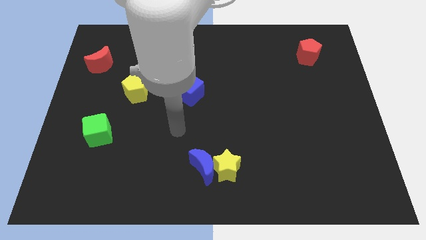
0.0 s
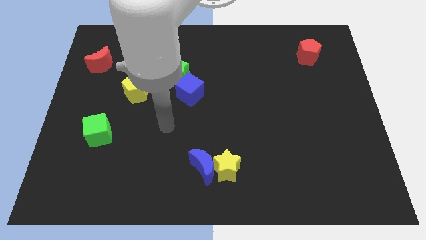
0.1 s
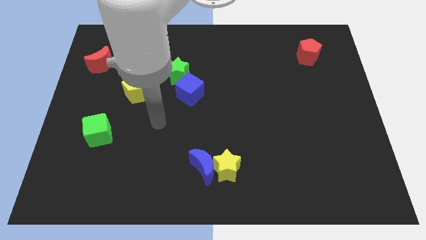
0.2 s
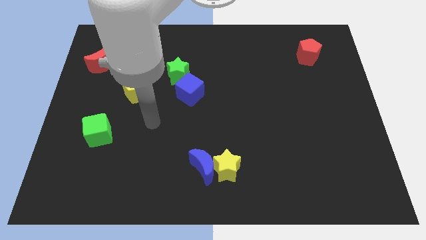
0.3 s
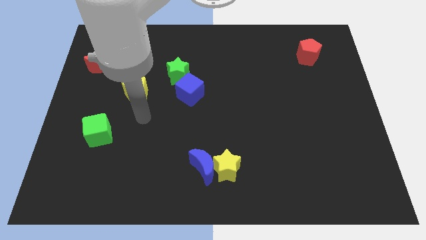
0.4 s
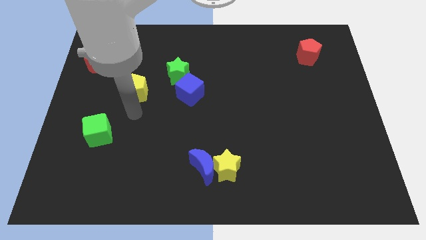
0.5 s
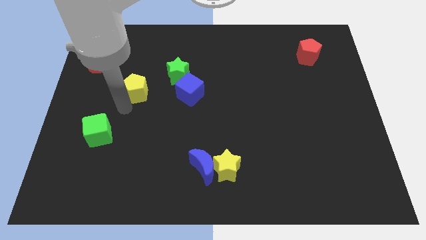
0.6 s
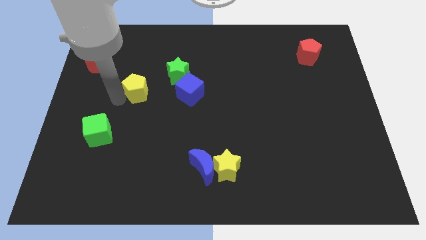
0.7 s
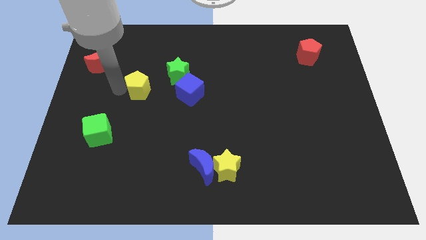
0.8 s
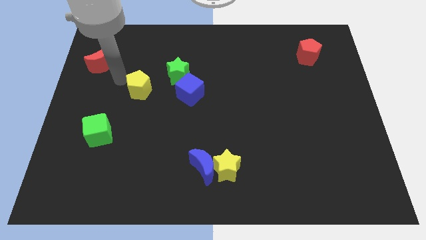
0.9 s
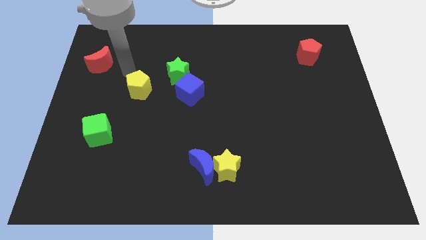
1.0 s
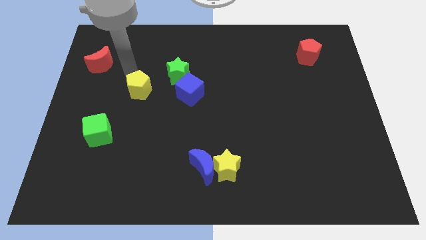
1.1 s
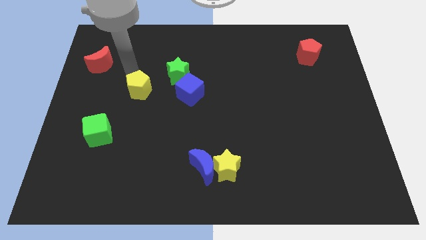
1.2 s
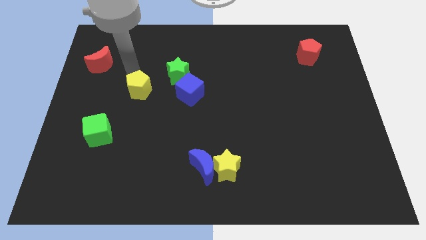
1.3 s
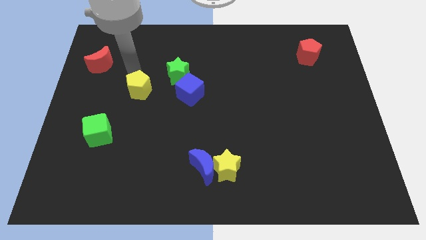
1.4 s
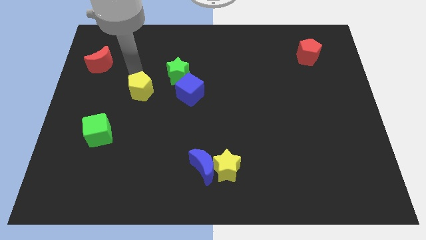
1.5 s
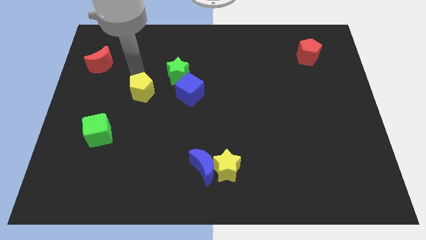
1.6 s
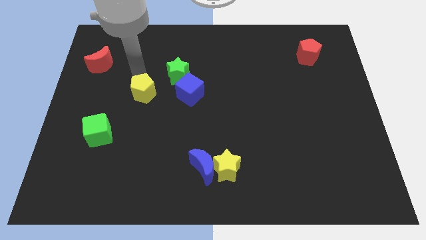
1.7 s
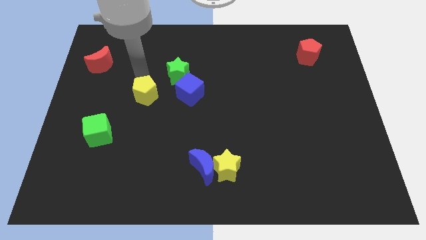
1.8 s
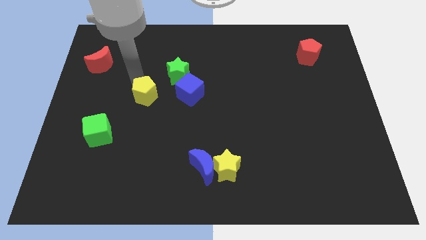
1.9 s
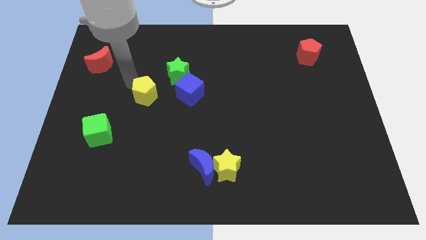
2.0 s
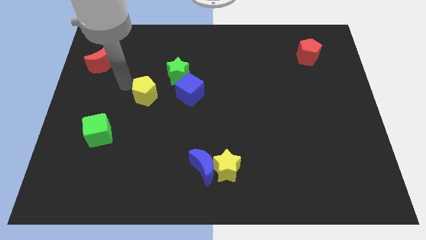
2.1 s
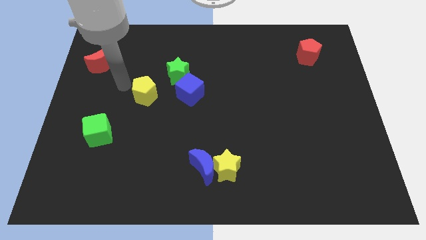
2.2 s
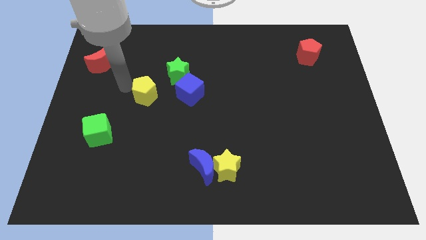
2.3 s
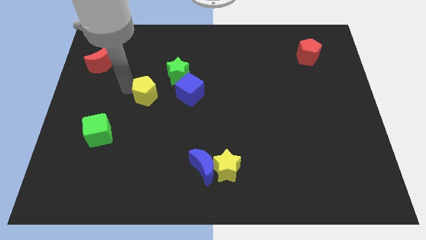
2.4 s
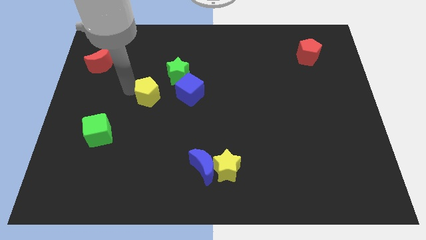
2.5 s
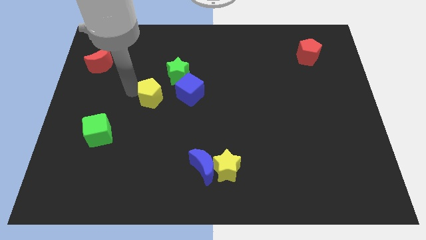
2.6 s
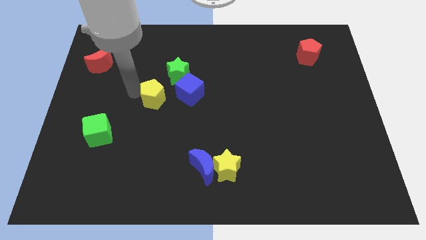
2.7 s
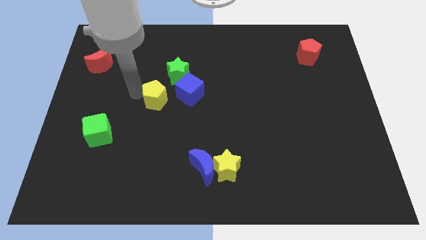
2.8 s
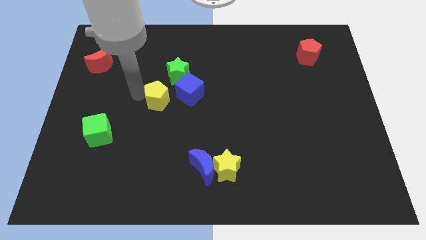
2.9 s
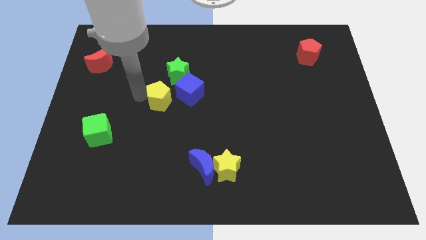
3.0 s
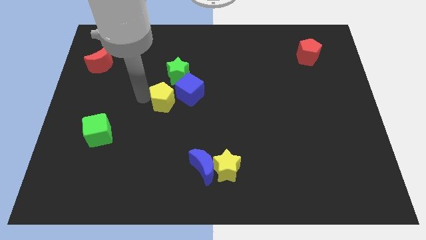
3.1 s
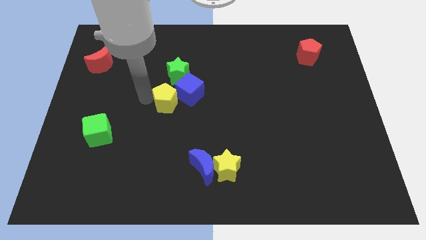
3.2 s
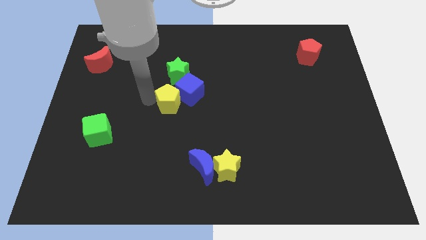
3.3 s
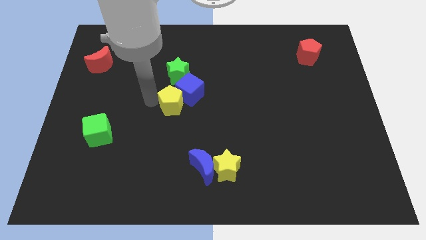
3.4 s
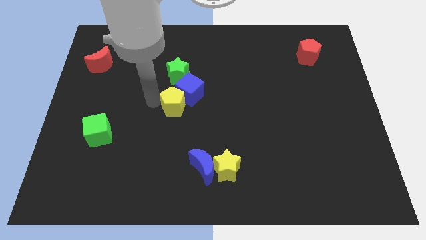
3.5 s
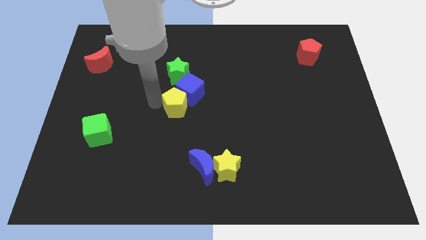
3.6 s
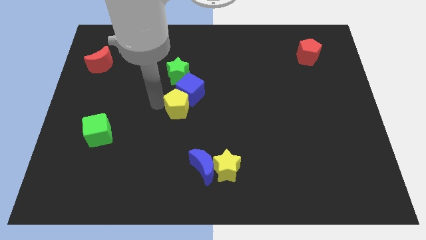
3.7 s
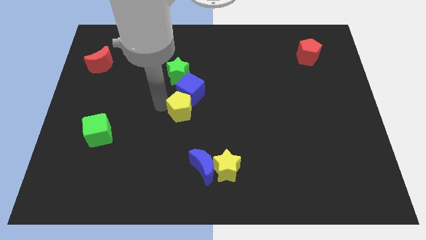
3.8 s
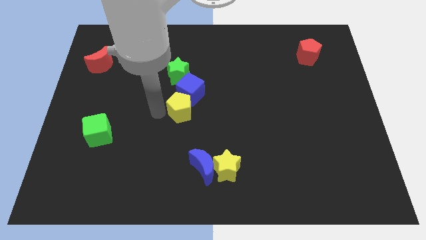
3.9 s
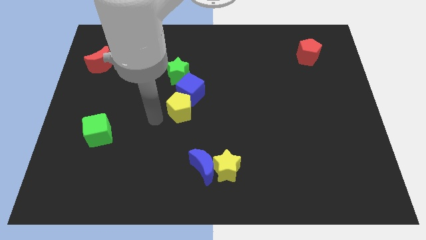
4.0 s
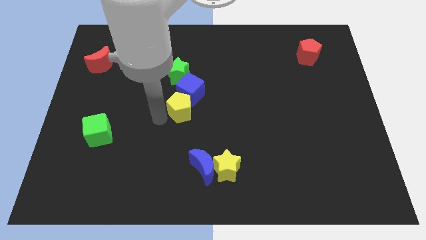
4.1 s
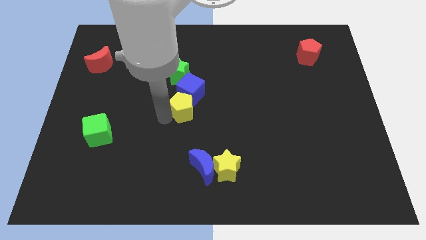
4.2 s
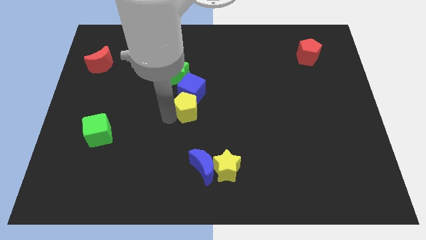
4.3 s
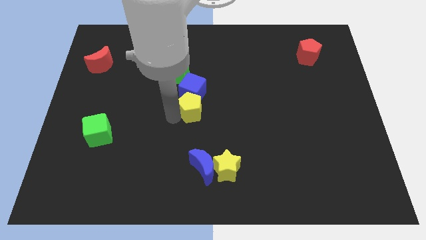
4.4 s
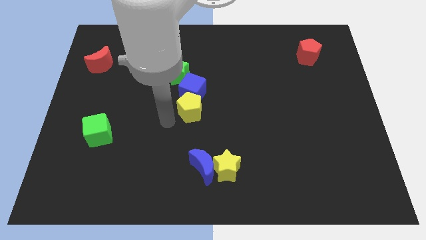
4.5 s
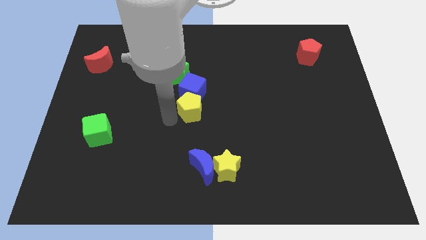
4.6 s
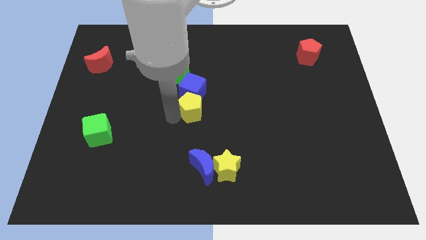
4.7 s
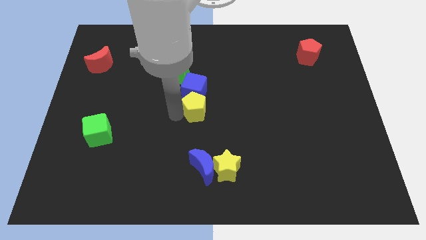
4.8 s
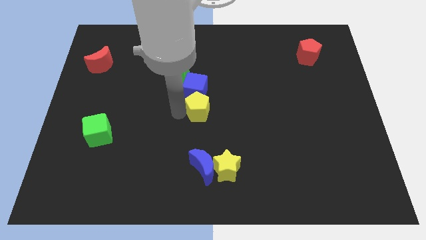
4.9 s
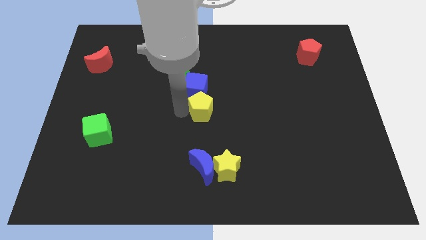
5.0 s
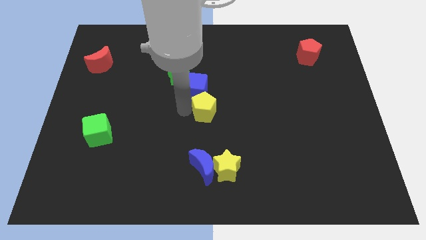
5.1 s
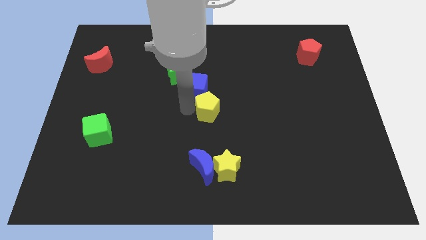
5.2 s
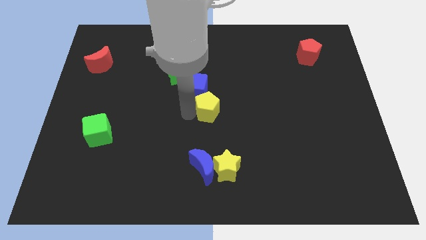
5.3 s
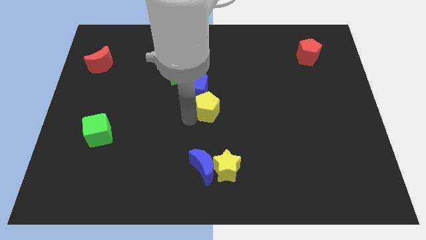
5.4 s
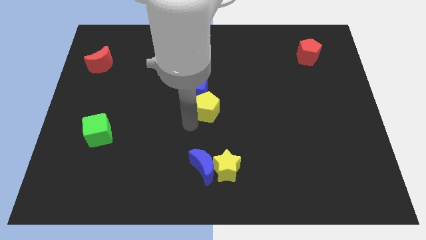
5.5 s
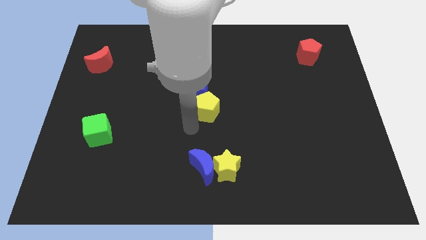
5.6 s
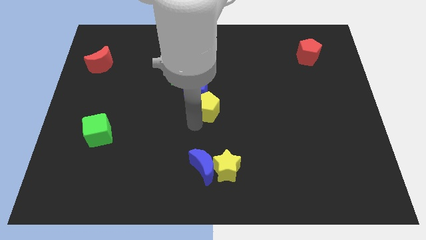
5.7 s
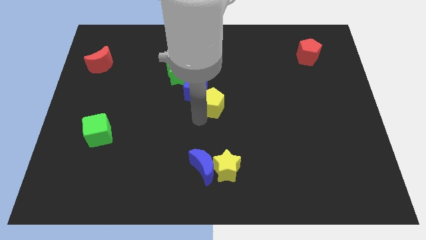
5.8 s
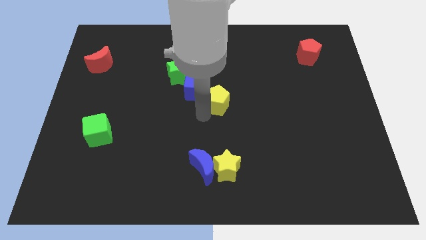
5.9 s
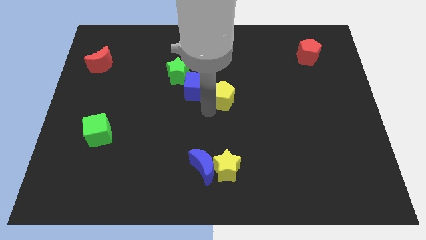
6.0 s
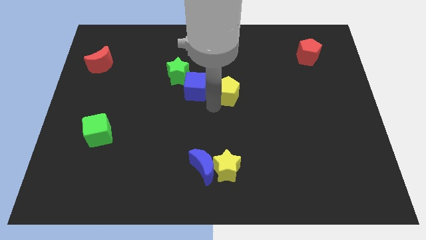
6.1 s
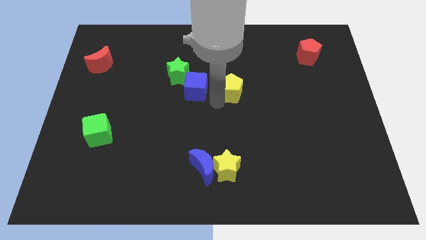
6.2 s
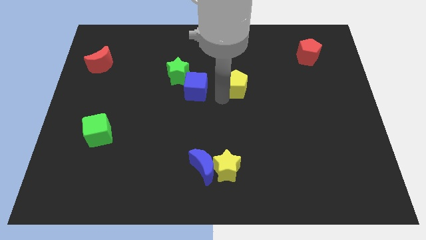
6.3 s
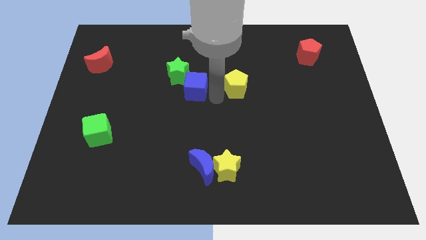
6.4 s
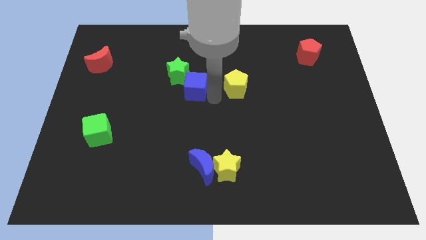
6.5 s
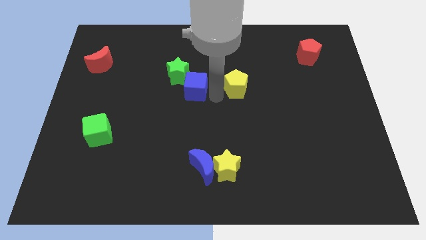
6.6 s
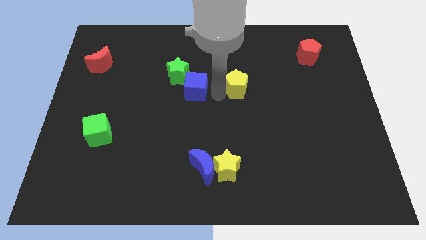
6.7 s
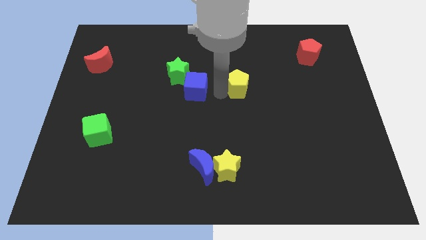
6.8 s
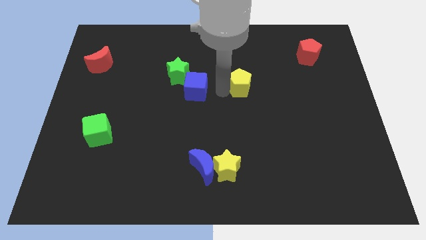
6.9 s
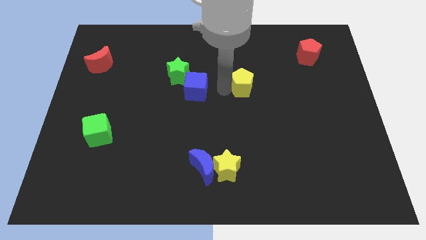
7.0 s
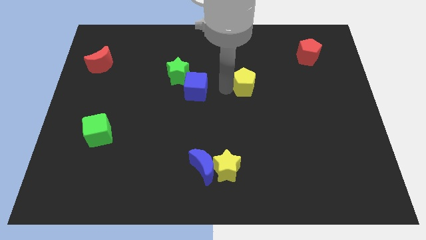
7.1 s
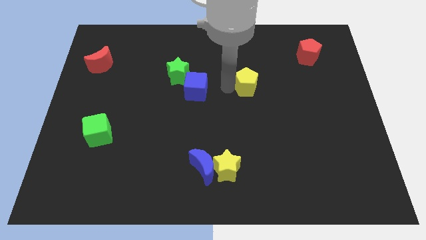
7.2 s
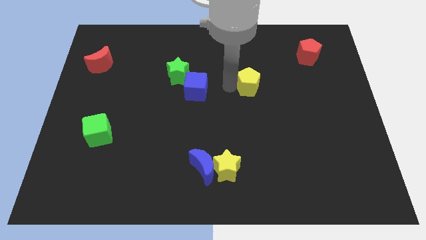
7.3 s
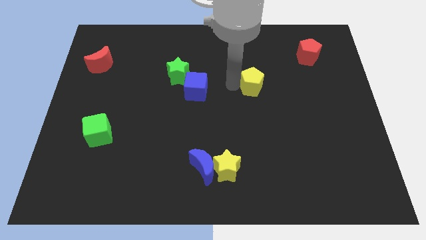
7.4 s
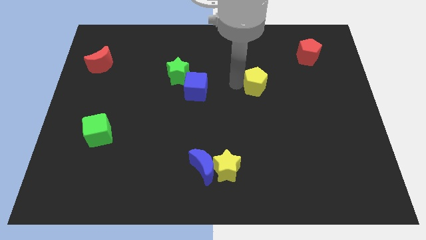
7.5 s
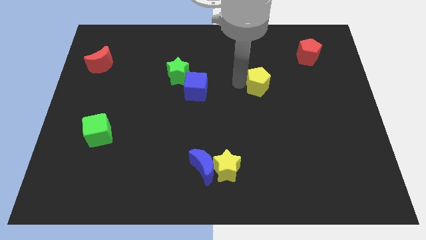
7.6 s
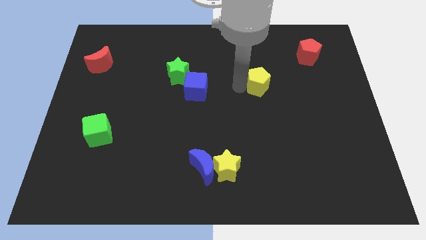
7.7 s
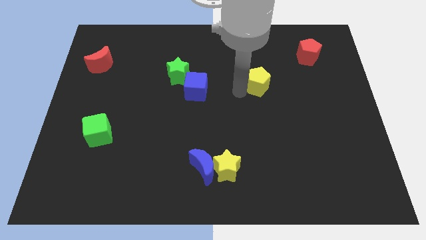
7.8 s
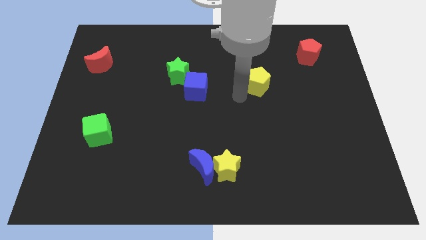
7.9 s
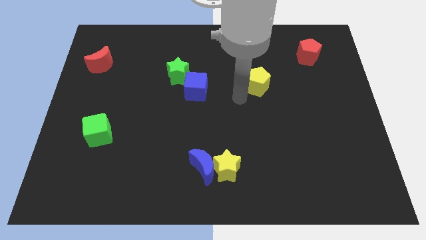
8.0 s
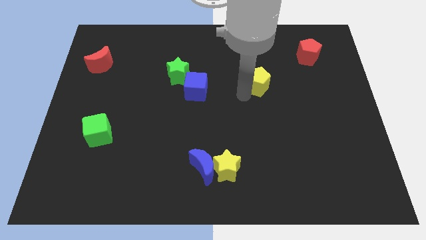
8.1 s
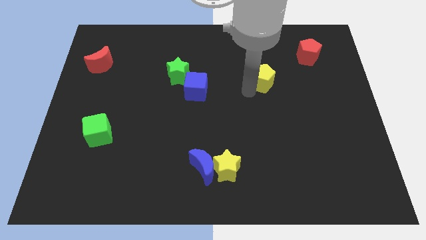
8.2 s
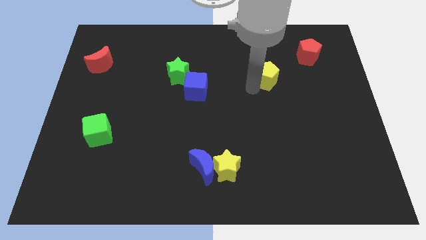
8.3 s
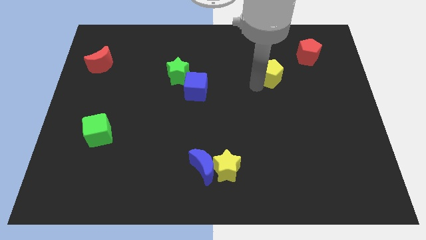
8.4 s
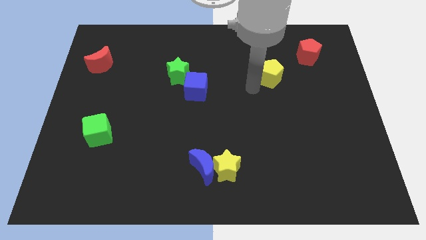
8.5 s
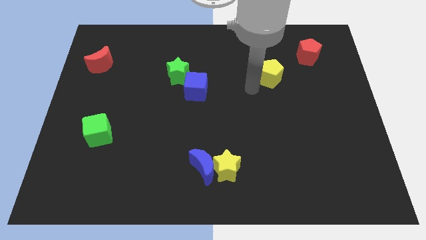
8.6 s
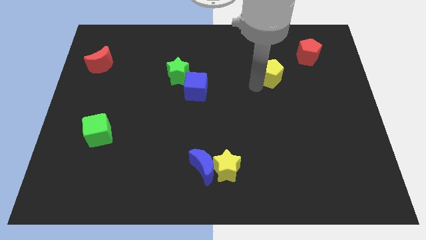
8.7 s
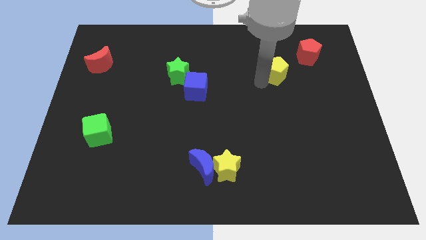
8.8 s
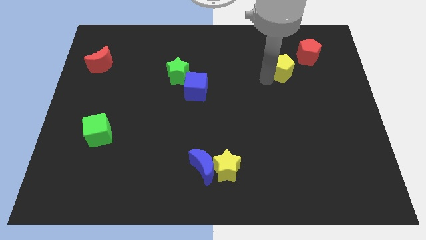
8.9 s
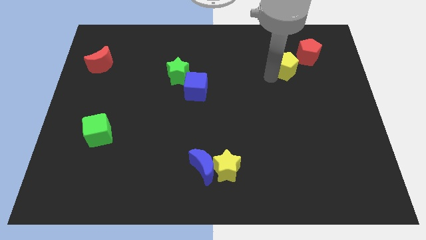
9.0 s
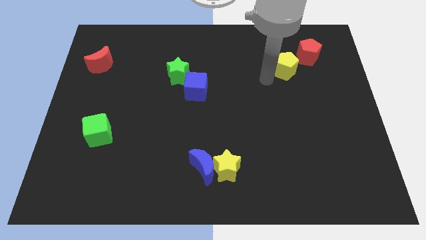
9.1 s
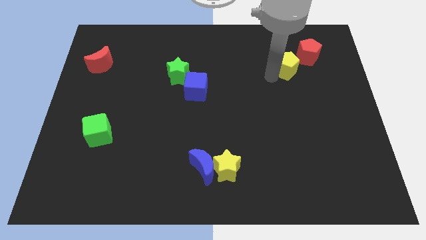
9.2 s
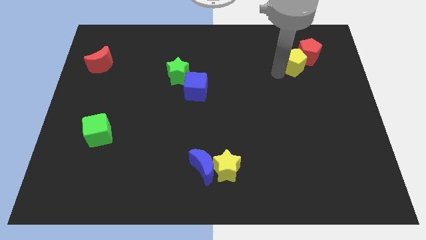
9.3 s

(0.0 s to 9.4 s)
slide the yellow pentagon close to the red pentagon
